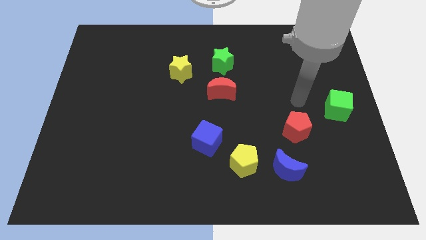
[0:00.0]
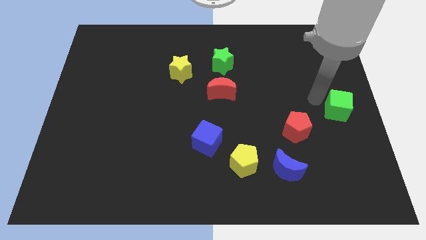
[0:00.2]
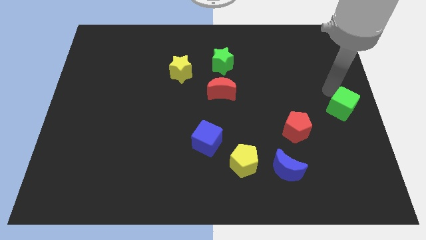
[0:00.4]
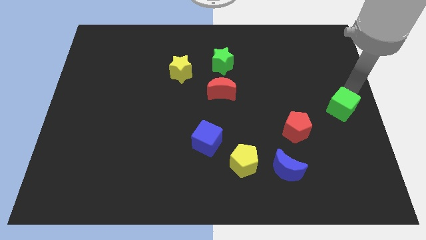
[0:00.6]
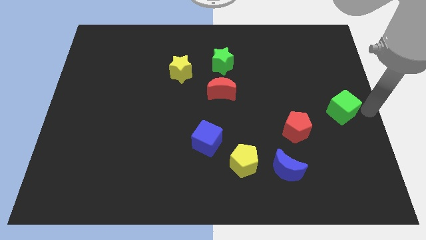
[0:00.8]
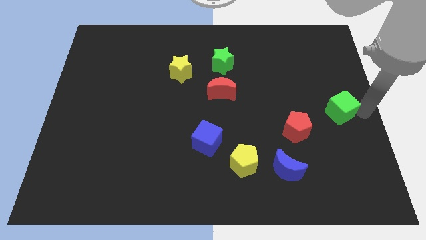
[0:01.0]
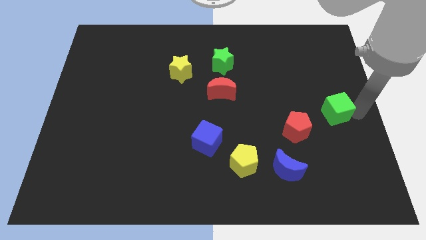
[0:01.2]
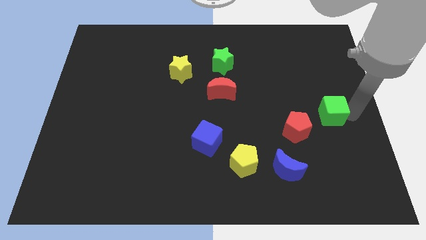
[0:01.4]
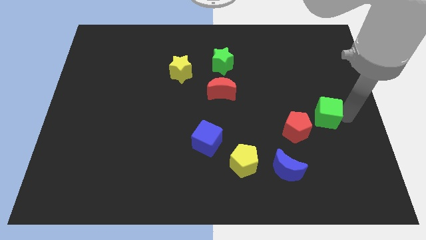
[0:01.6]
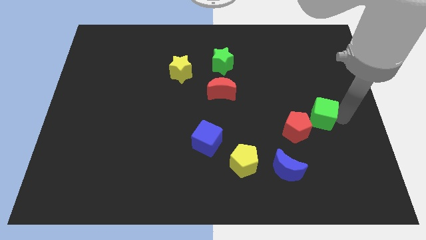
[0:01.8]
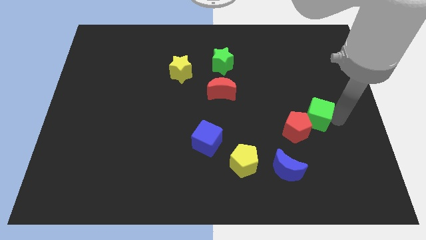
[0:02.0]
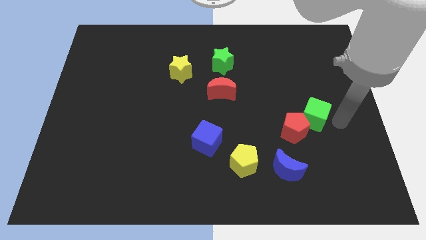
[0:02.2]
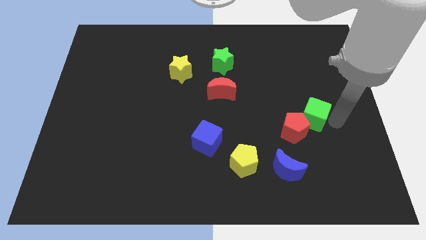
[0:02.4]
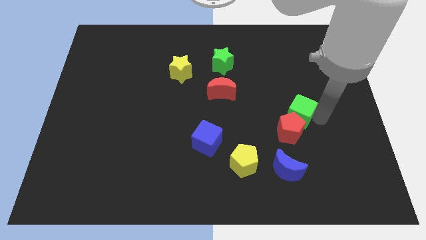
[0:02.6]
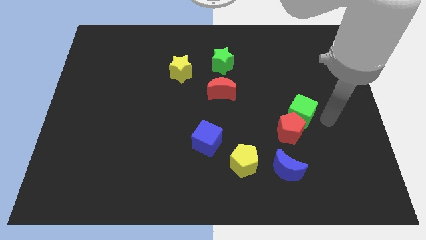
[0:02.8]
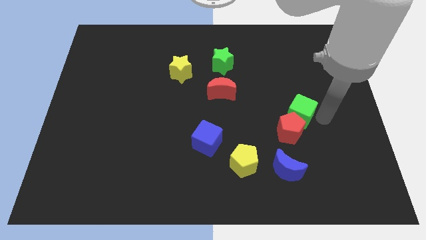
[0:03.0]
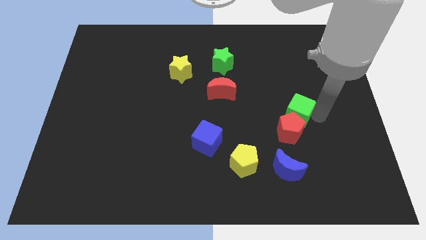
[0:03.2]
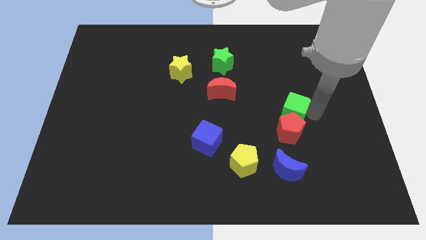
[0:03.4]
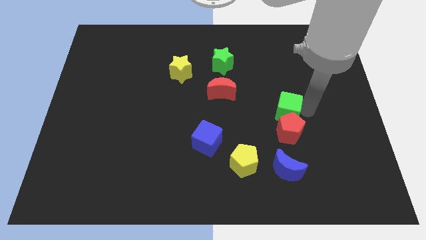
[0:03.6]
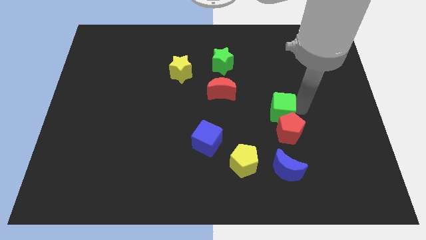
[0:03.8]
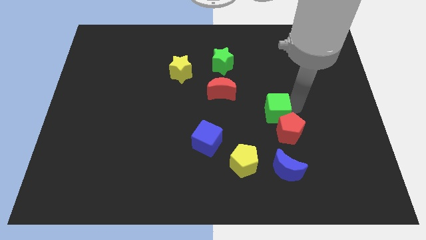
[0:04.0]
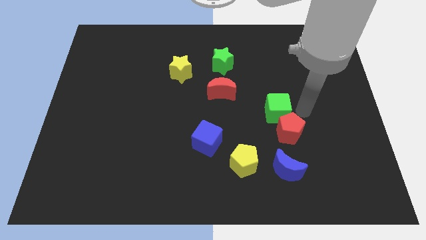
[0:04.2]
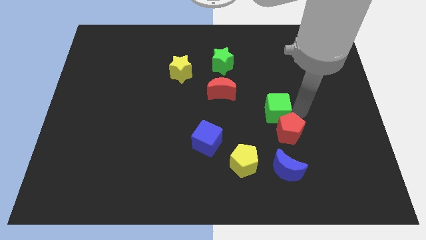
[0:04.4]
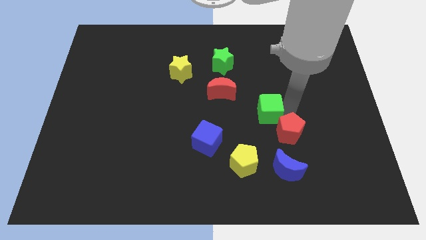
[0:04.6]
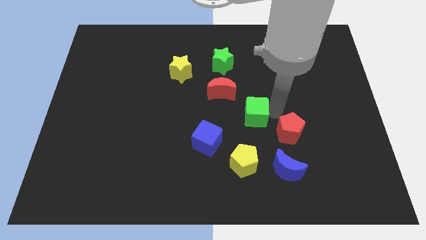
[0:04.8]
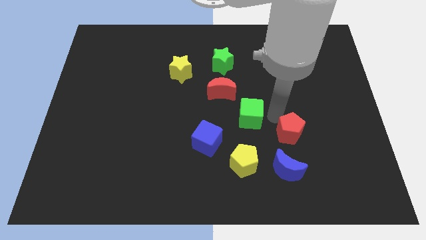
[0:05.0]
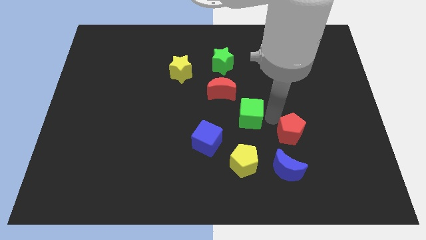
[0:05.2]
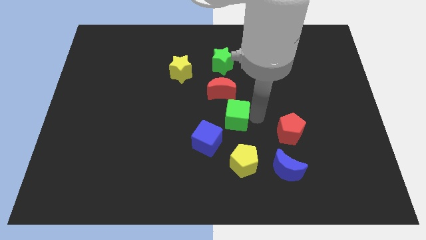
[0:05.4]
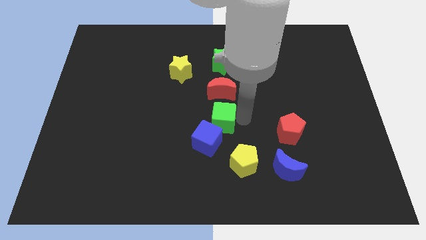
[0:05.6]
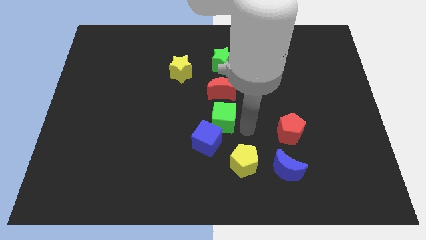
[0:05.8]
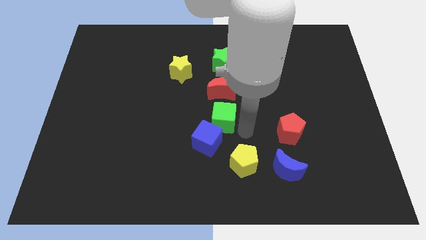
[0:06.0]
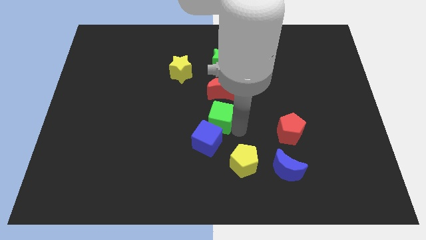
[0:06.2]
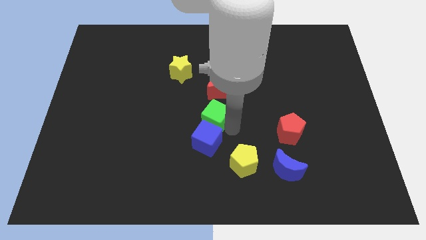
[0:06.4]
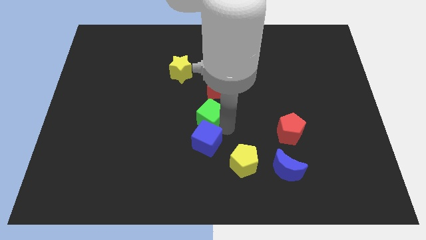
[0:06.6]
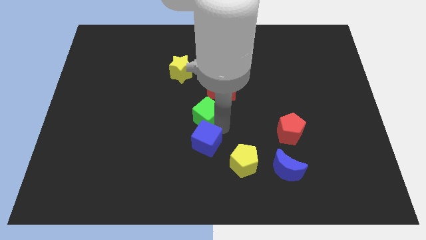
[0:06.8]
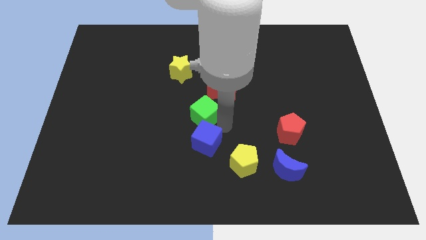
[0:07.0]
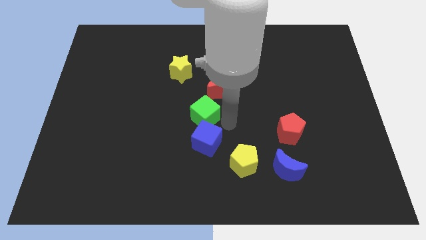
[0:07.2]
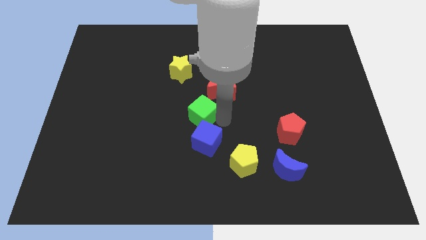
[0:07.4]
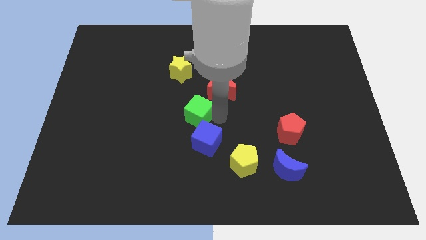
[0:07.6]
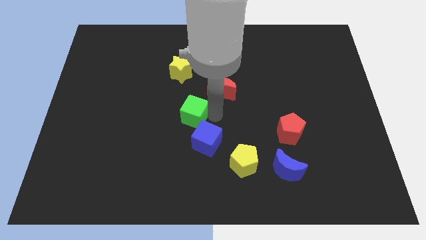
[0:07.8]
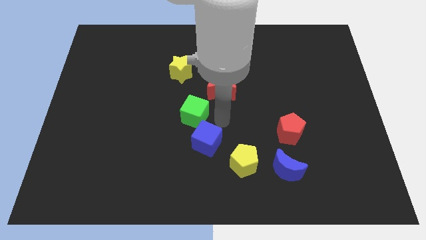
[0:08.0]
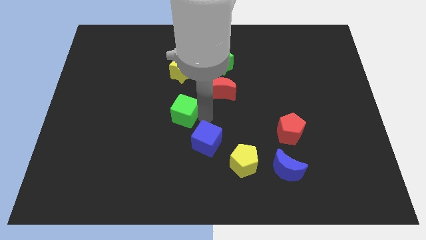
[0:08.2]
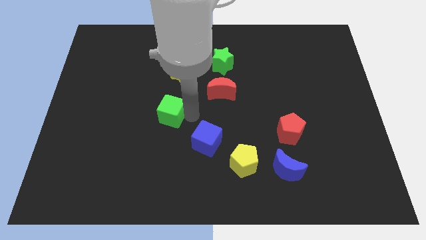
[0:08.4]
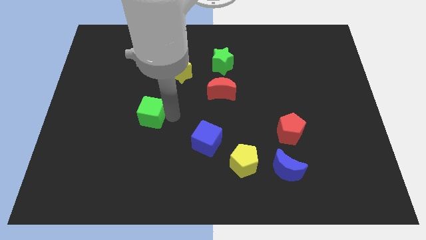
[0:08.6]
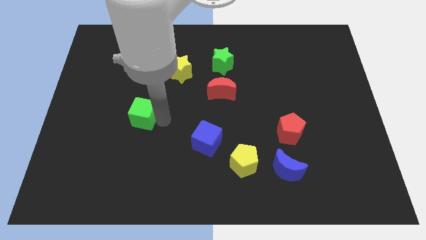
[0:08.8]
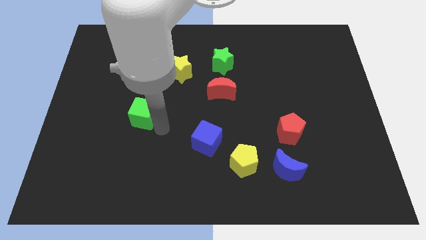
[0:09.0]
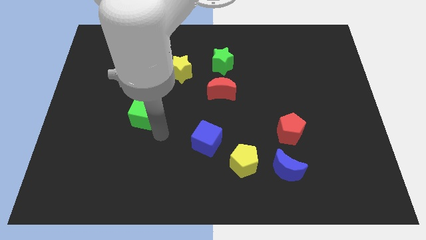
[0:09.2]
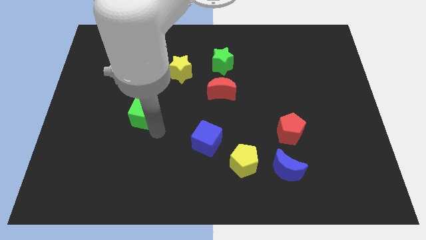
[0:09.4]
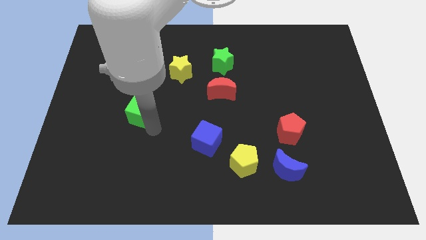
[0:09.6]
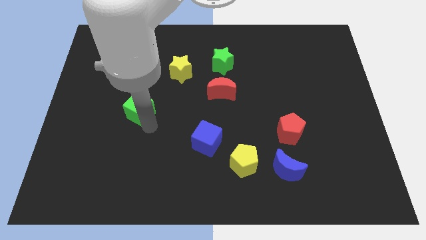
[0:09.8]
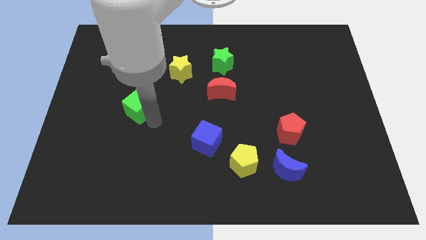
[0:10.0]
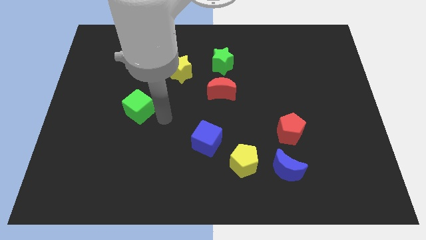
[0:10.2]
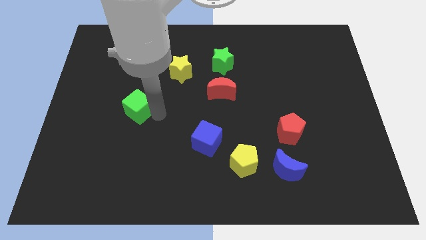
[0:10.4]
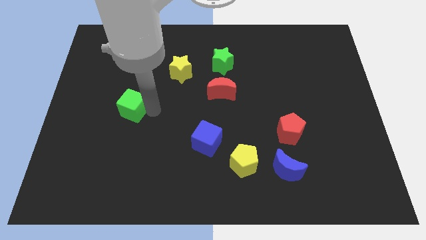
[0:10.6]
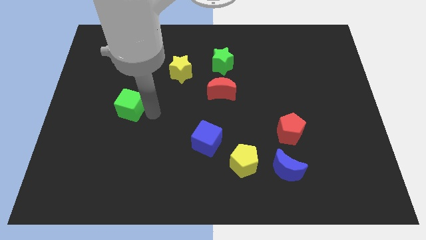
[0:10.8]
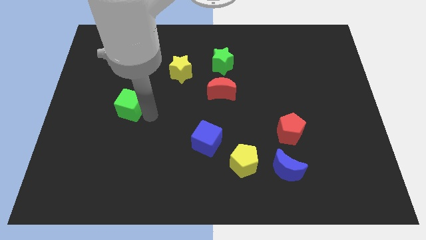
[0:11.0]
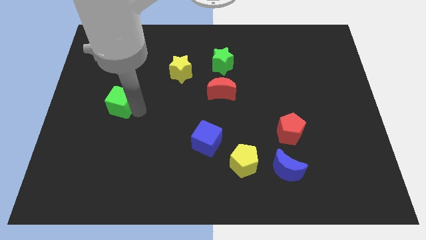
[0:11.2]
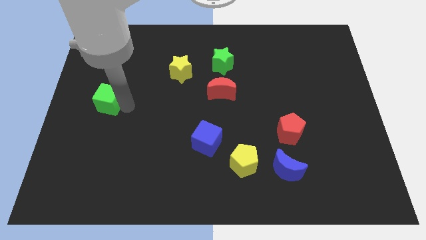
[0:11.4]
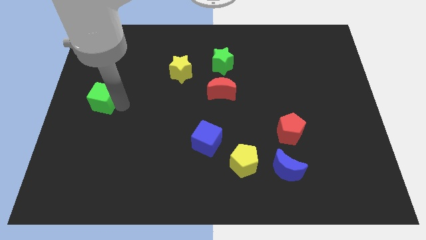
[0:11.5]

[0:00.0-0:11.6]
move the green cube to the left side

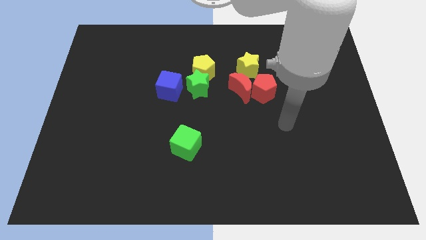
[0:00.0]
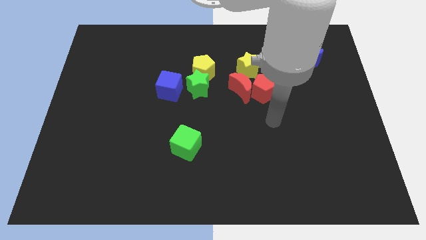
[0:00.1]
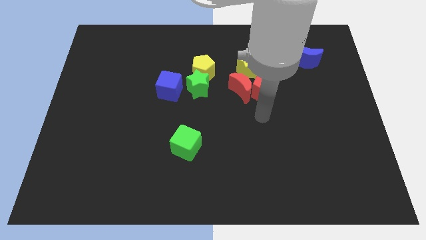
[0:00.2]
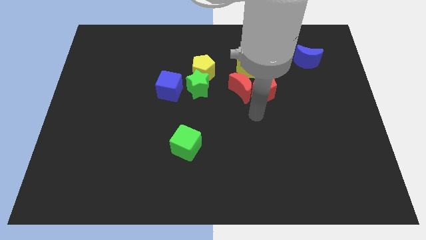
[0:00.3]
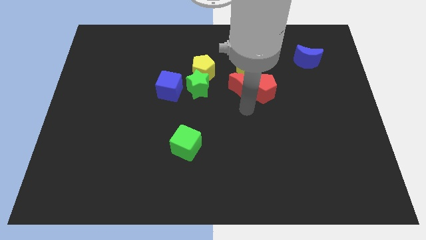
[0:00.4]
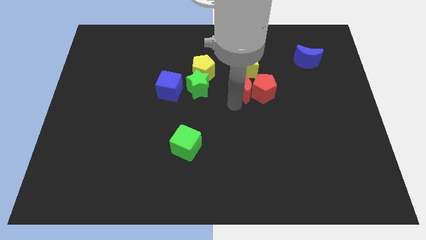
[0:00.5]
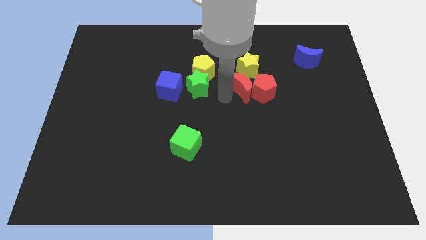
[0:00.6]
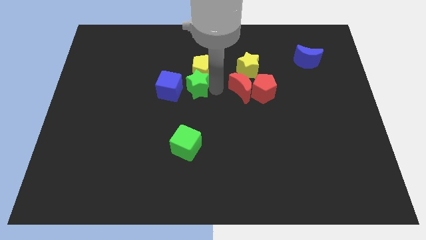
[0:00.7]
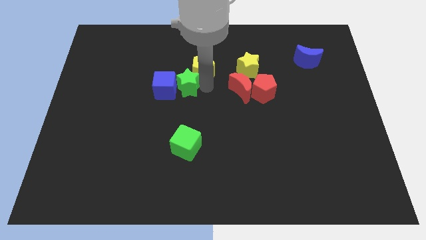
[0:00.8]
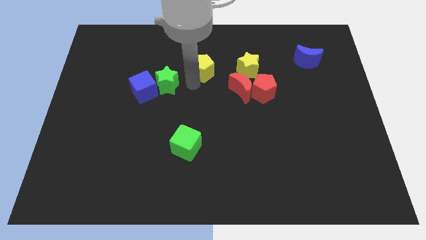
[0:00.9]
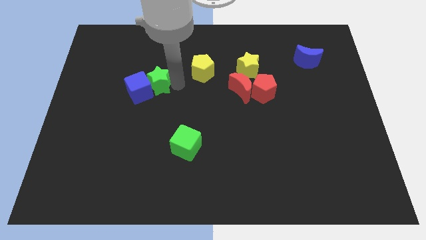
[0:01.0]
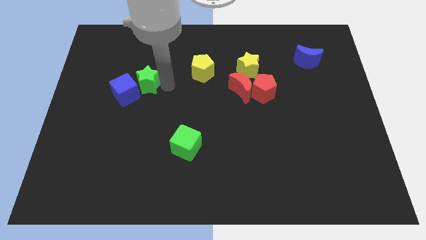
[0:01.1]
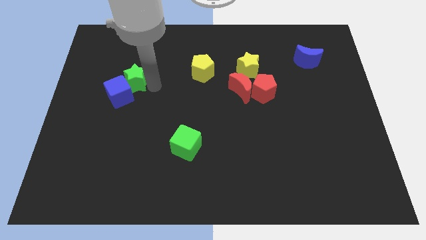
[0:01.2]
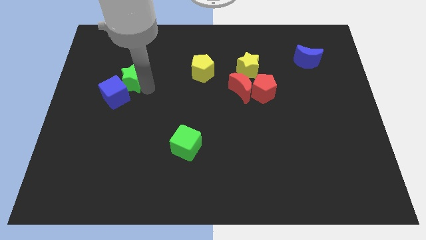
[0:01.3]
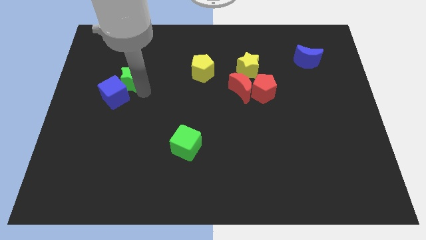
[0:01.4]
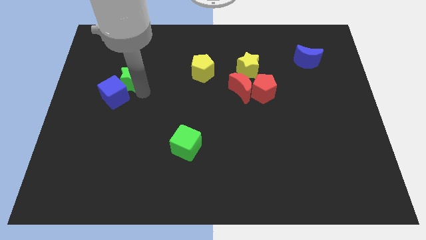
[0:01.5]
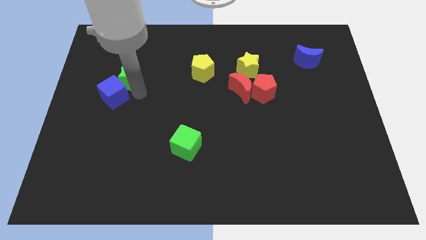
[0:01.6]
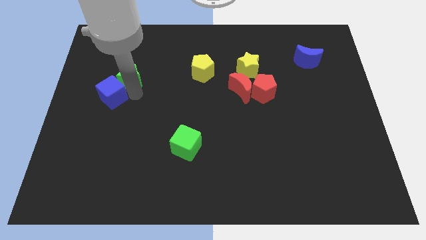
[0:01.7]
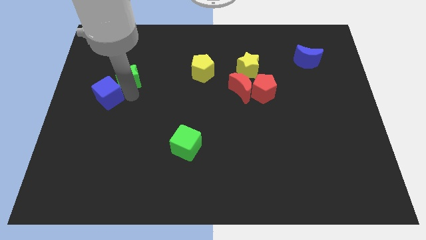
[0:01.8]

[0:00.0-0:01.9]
slide the blue cube to the center left

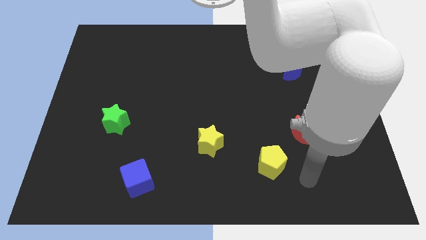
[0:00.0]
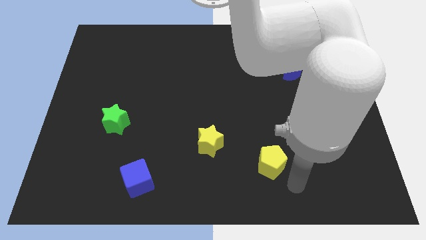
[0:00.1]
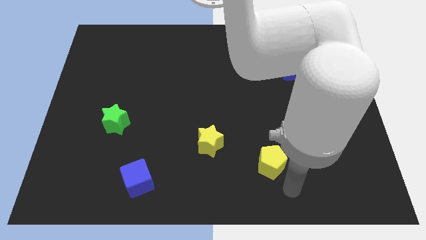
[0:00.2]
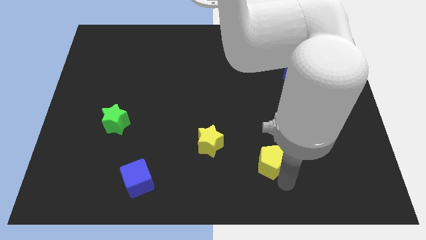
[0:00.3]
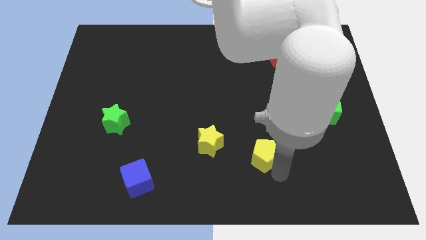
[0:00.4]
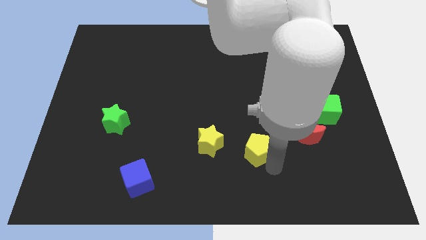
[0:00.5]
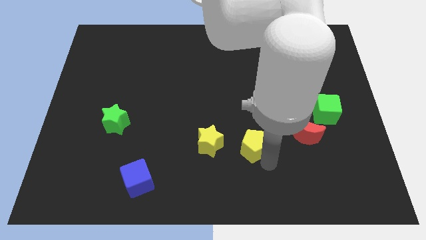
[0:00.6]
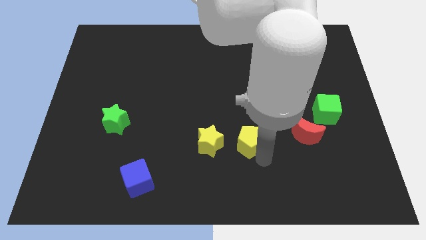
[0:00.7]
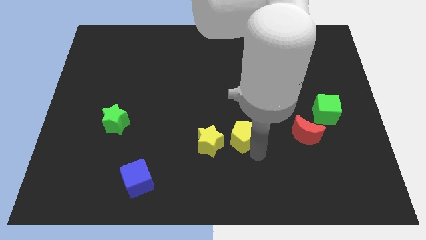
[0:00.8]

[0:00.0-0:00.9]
push the yellow pentagon to the center of the board
